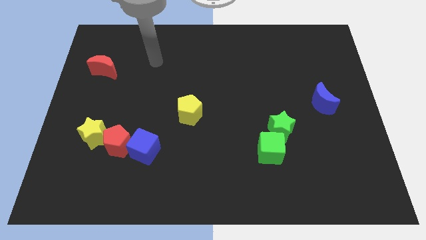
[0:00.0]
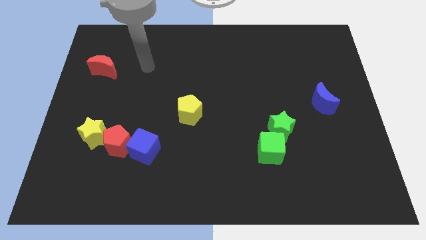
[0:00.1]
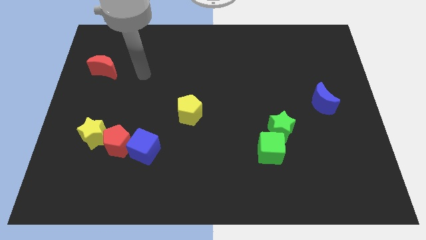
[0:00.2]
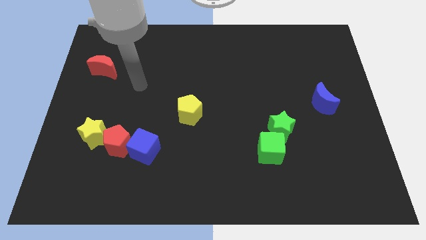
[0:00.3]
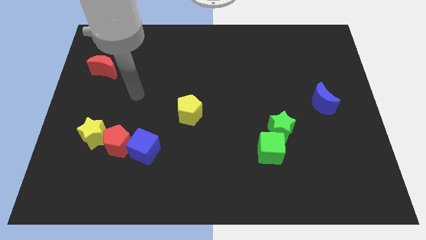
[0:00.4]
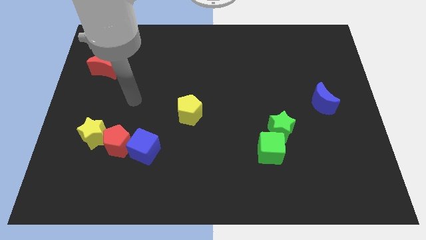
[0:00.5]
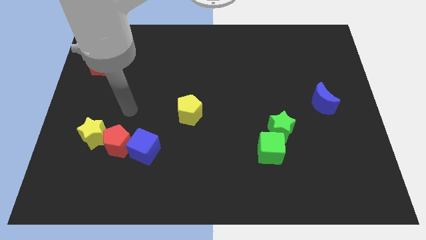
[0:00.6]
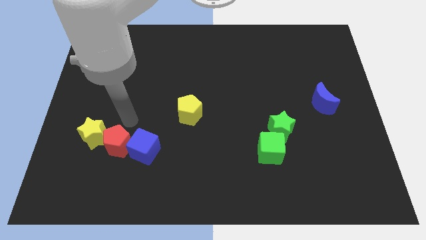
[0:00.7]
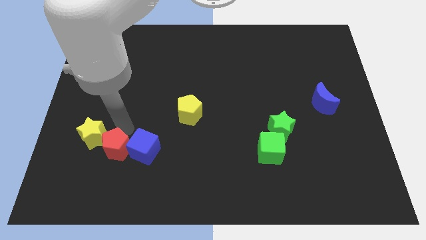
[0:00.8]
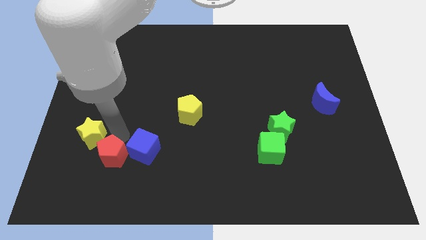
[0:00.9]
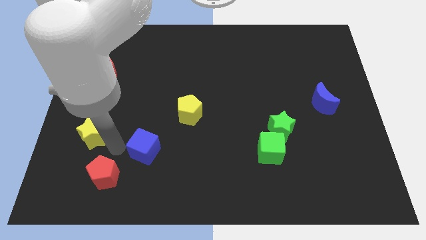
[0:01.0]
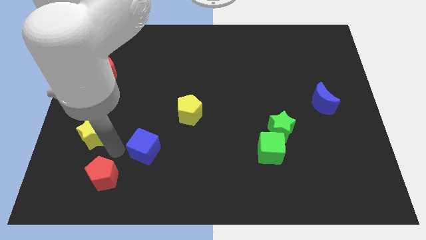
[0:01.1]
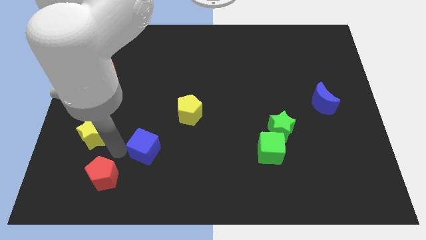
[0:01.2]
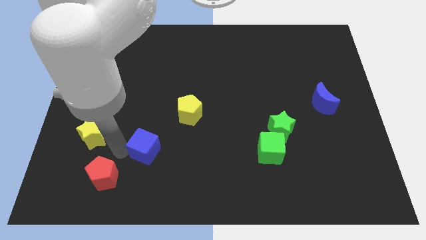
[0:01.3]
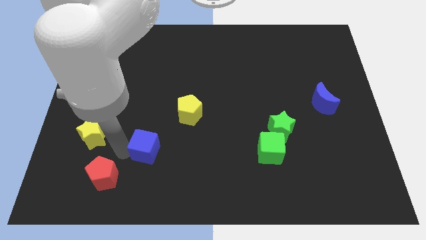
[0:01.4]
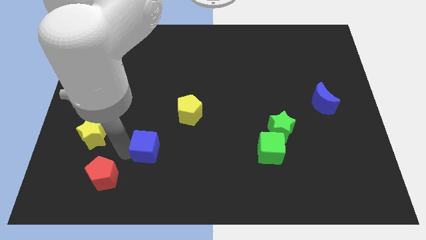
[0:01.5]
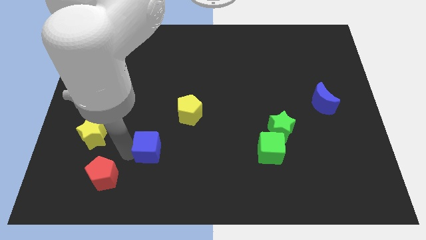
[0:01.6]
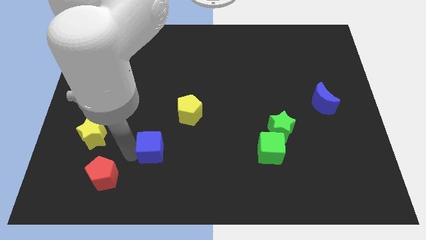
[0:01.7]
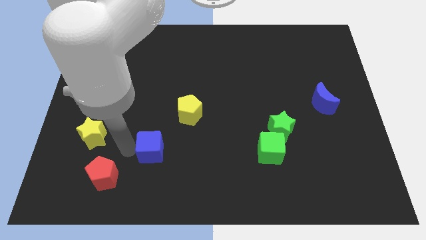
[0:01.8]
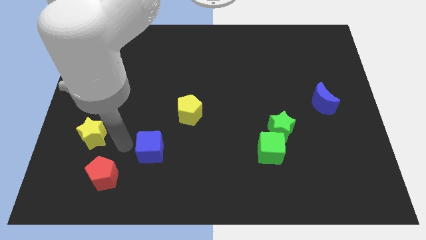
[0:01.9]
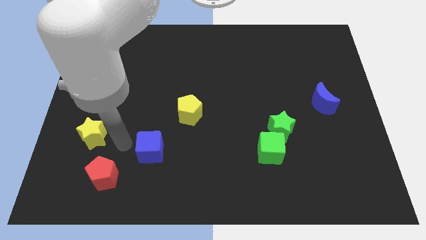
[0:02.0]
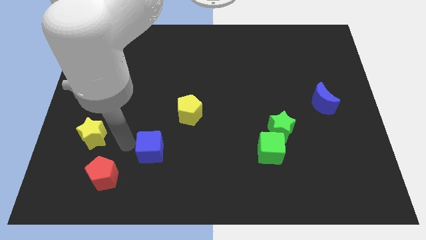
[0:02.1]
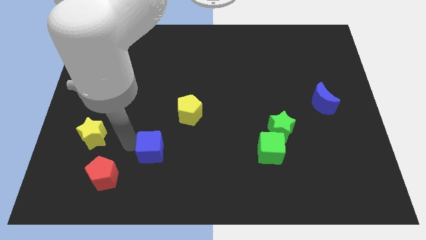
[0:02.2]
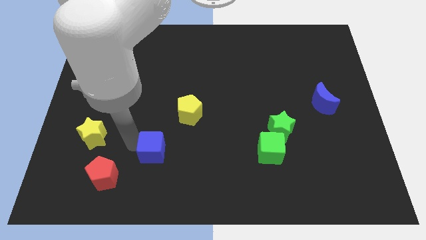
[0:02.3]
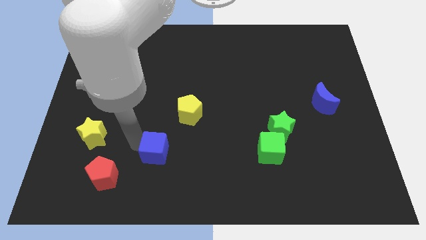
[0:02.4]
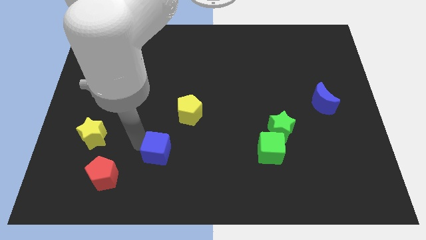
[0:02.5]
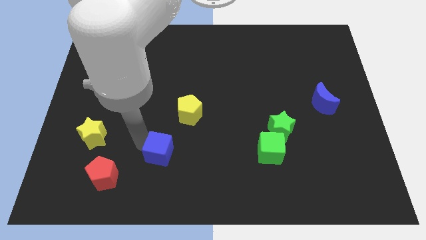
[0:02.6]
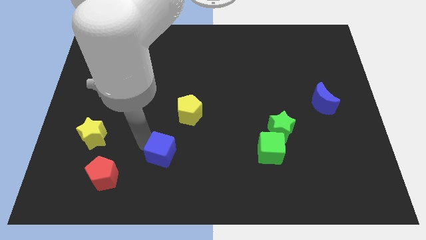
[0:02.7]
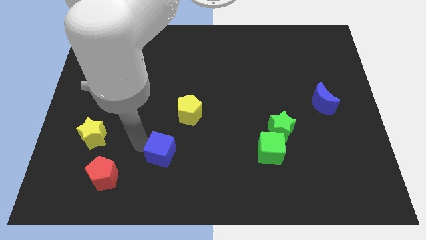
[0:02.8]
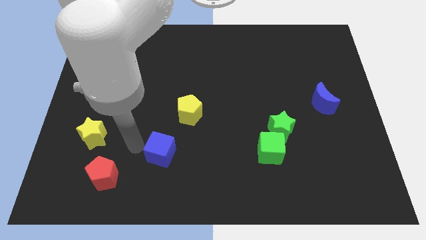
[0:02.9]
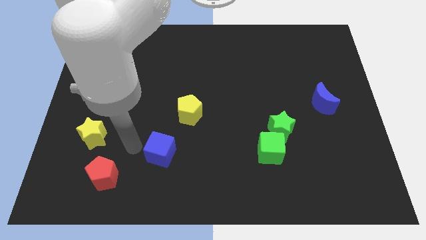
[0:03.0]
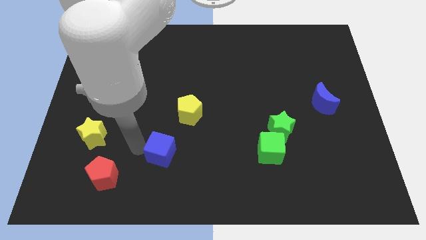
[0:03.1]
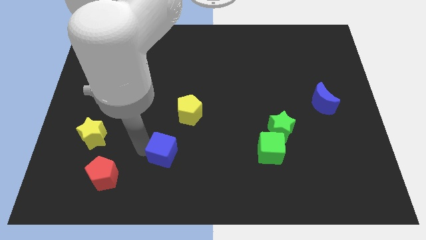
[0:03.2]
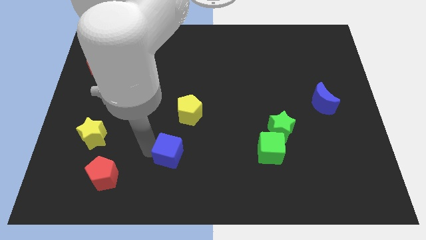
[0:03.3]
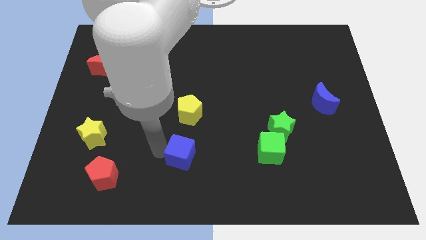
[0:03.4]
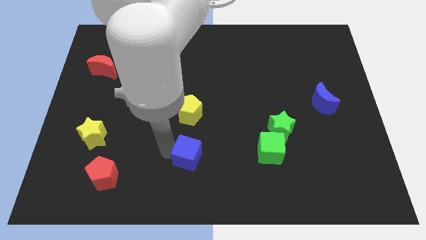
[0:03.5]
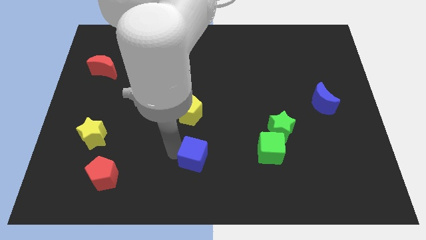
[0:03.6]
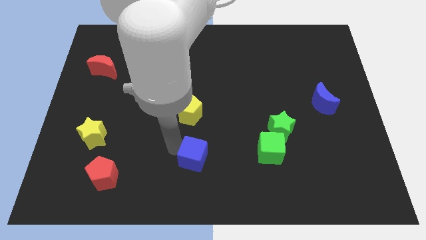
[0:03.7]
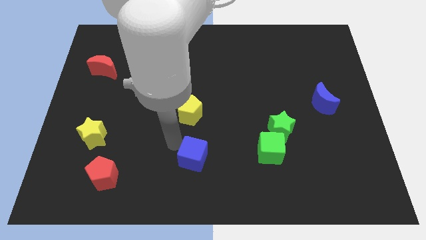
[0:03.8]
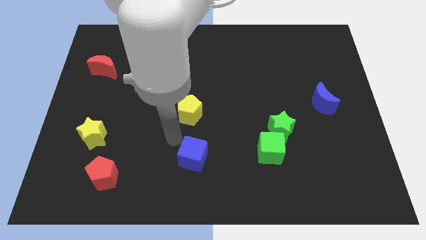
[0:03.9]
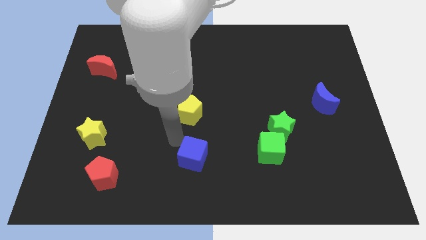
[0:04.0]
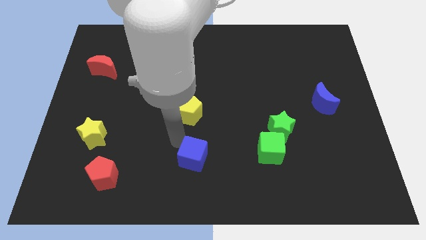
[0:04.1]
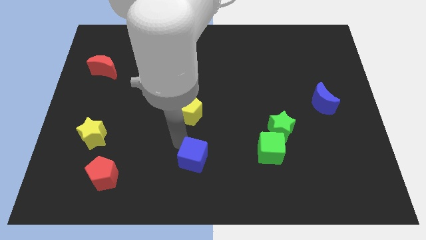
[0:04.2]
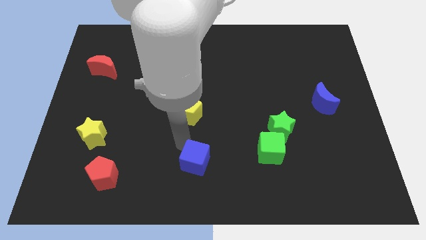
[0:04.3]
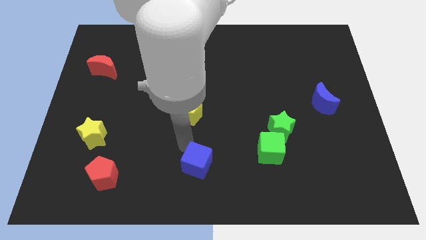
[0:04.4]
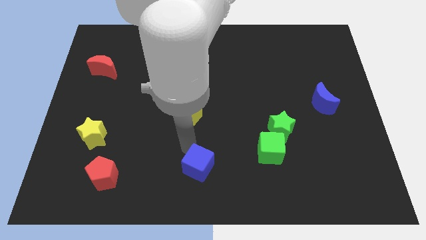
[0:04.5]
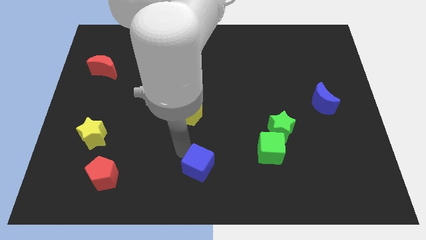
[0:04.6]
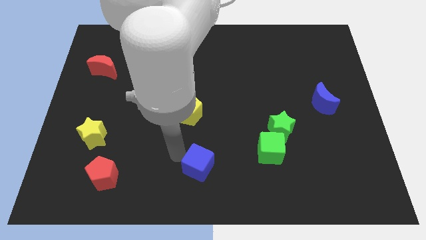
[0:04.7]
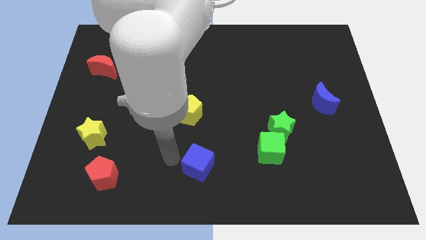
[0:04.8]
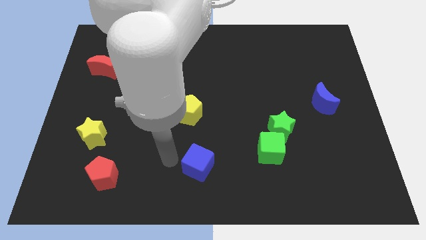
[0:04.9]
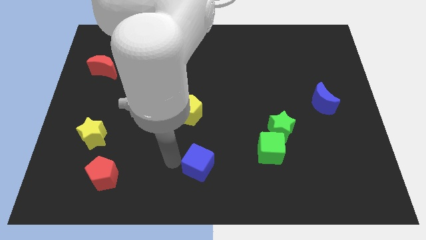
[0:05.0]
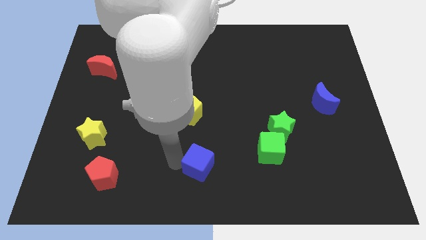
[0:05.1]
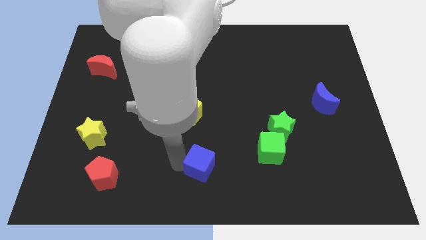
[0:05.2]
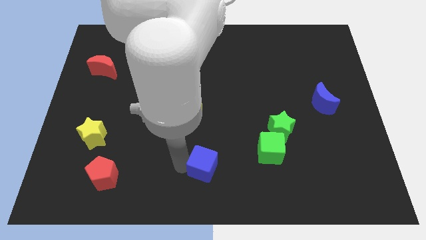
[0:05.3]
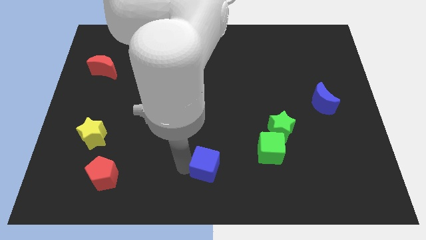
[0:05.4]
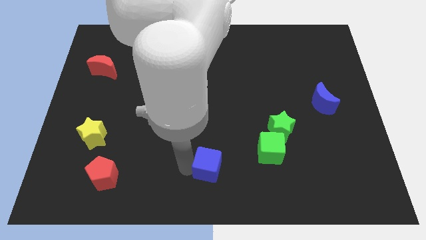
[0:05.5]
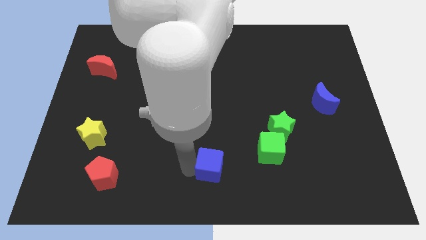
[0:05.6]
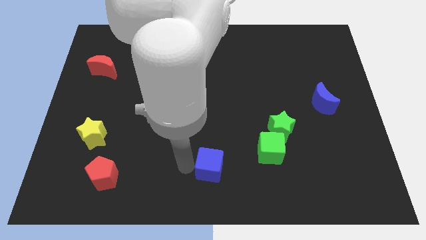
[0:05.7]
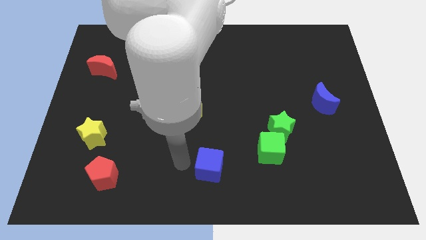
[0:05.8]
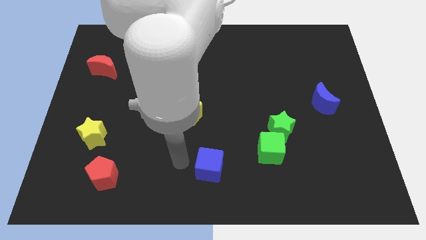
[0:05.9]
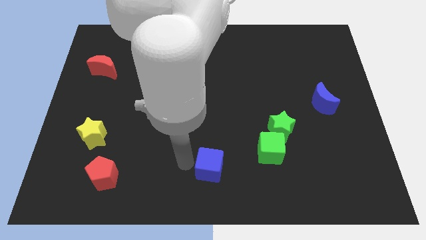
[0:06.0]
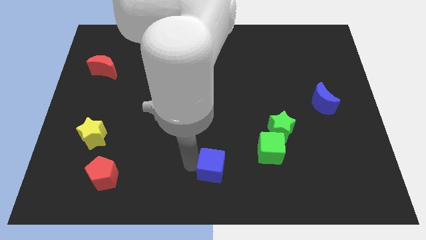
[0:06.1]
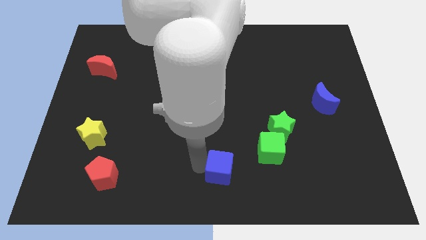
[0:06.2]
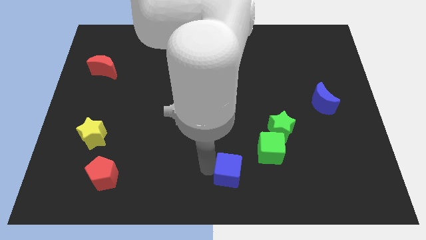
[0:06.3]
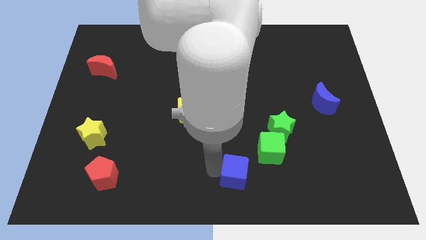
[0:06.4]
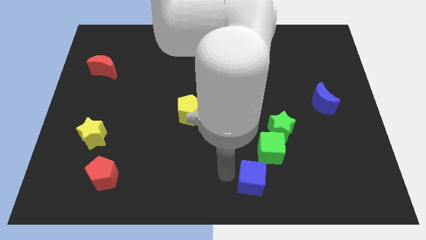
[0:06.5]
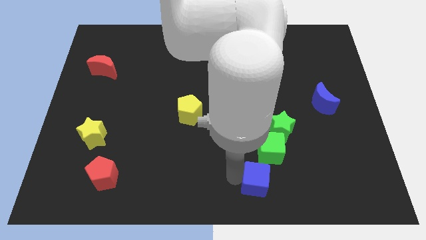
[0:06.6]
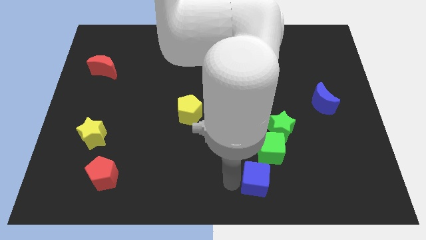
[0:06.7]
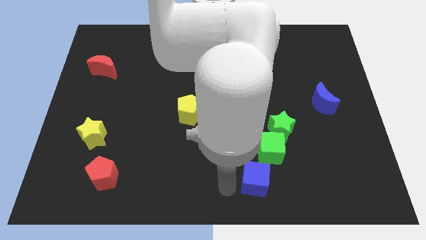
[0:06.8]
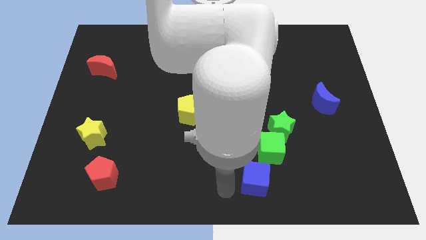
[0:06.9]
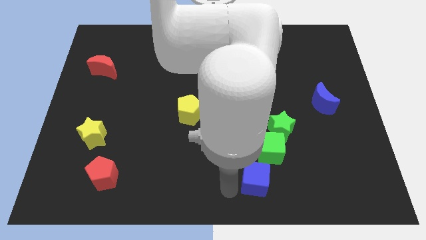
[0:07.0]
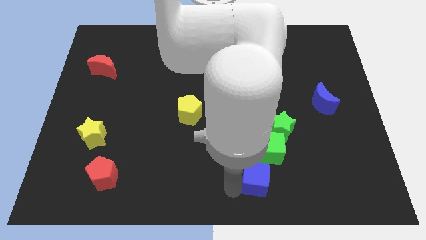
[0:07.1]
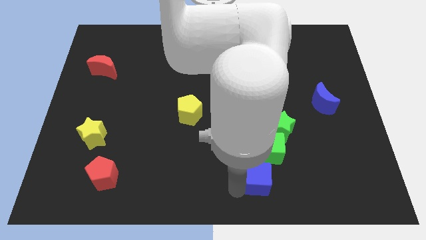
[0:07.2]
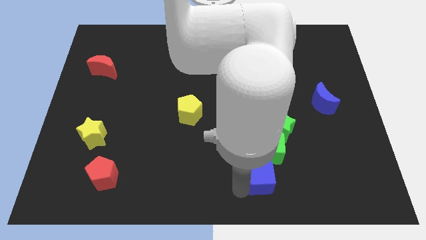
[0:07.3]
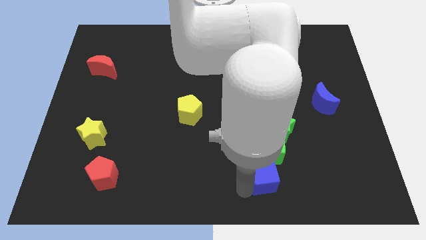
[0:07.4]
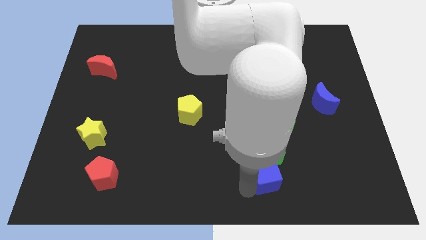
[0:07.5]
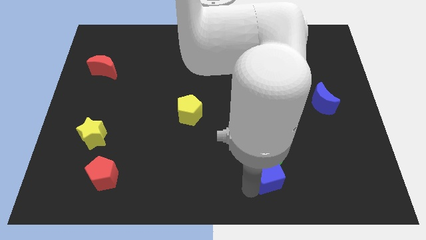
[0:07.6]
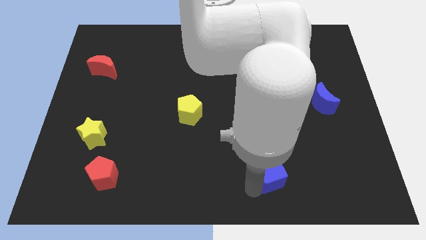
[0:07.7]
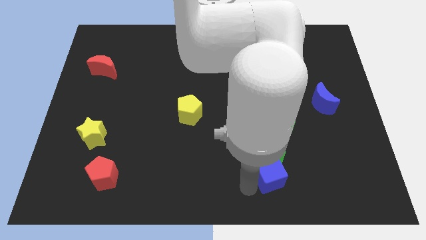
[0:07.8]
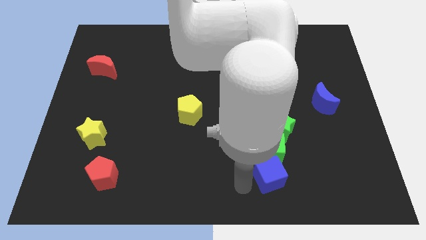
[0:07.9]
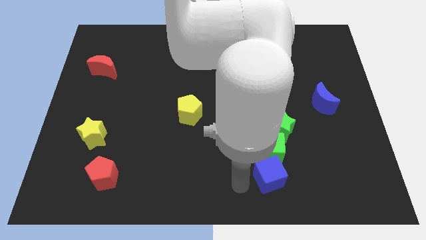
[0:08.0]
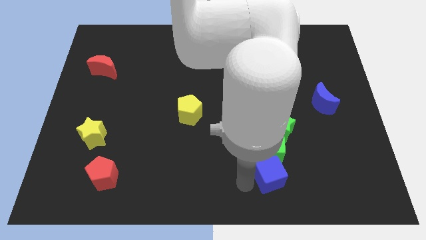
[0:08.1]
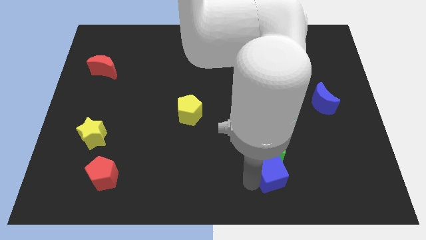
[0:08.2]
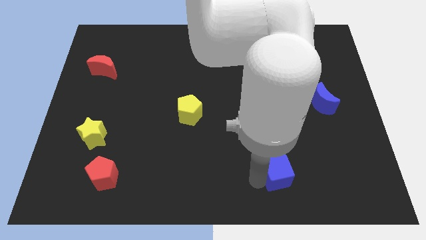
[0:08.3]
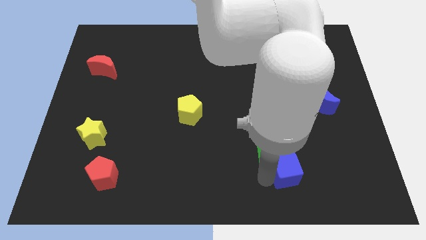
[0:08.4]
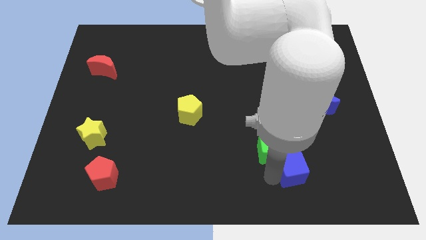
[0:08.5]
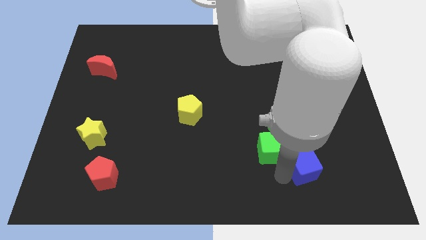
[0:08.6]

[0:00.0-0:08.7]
slide the blue cube to the right of the green cube
